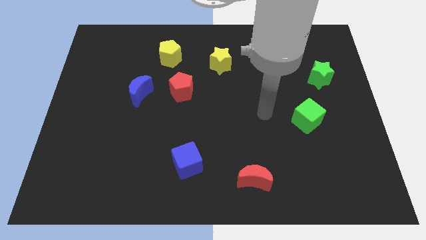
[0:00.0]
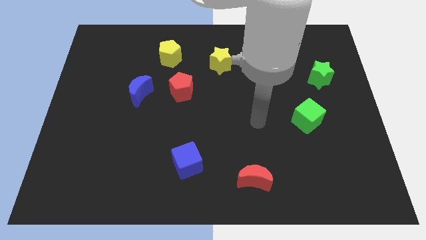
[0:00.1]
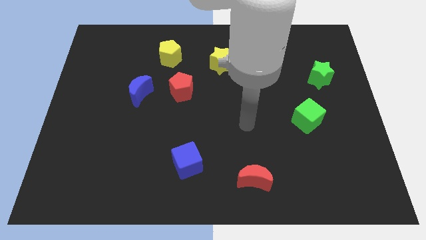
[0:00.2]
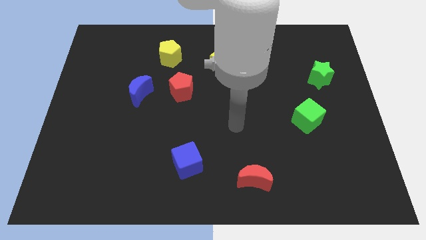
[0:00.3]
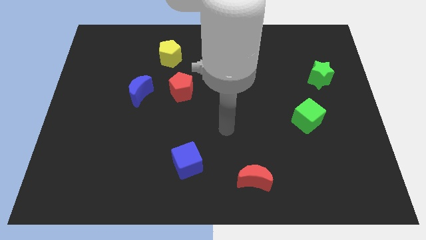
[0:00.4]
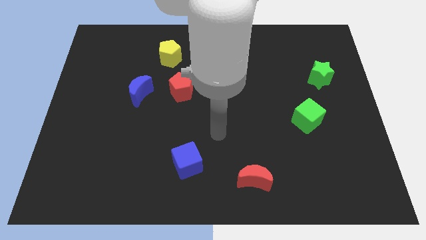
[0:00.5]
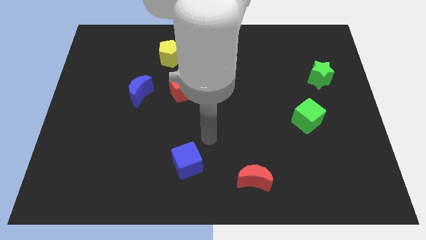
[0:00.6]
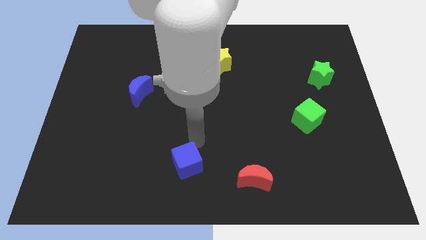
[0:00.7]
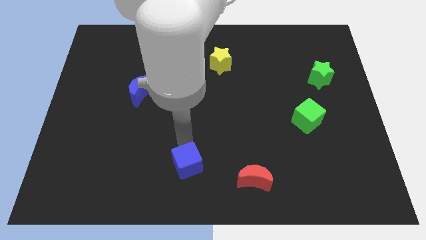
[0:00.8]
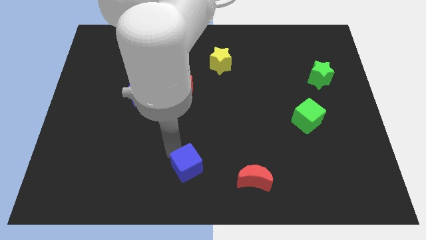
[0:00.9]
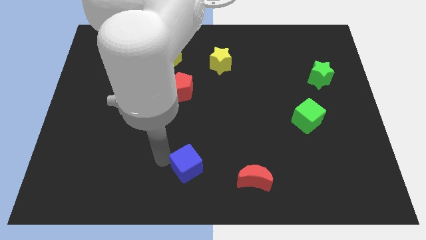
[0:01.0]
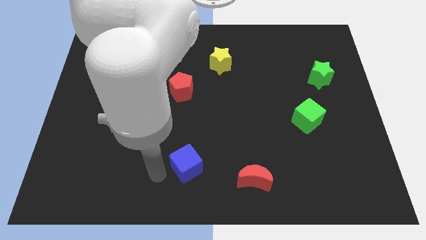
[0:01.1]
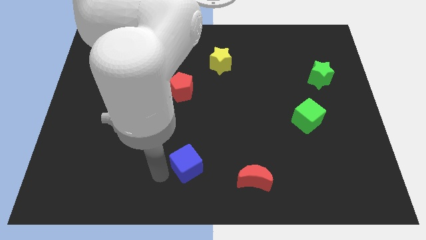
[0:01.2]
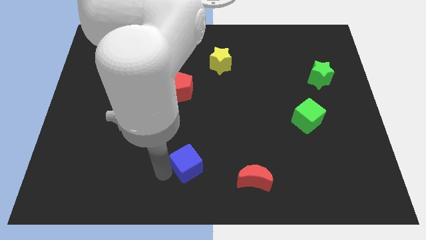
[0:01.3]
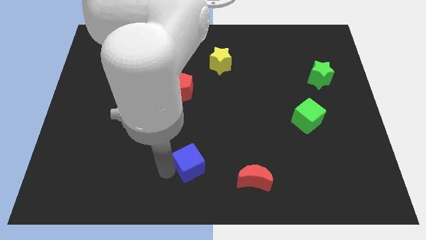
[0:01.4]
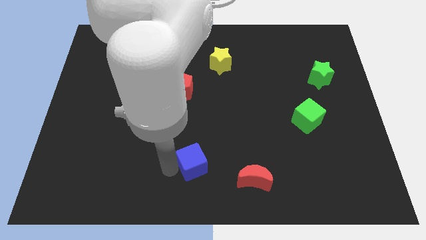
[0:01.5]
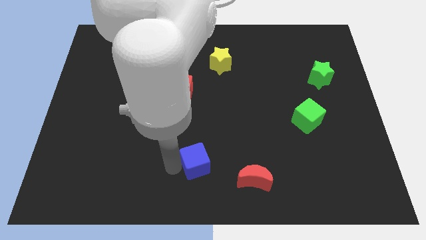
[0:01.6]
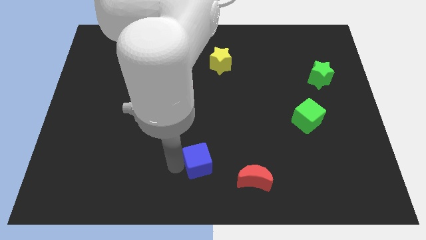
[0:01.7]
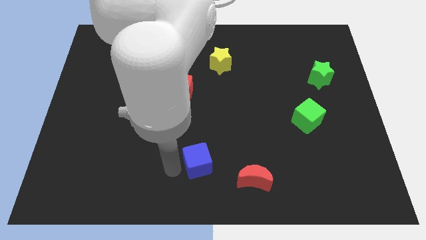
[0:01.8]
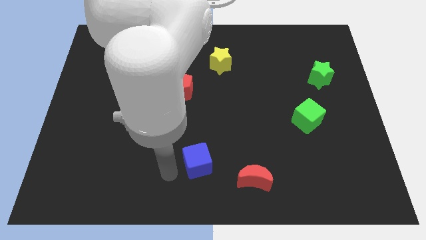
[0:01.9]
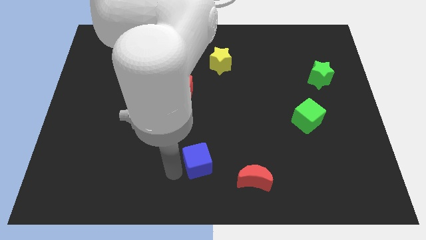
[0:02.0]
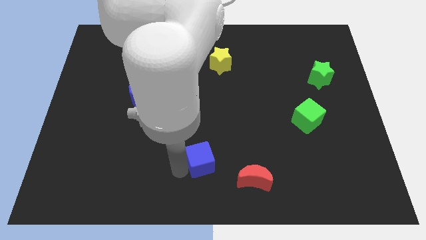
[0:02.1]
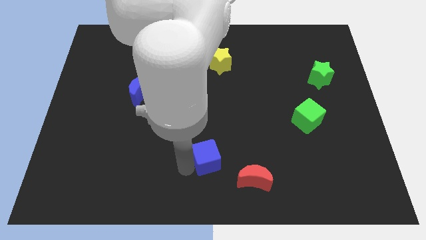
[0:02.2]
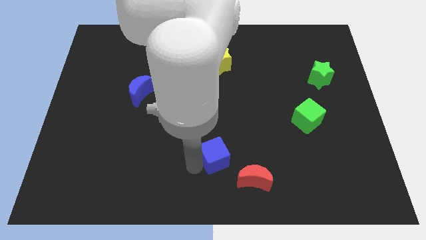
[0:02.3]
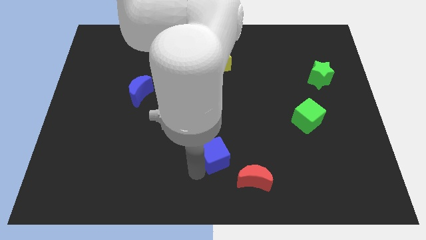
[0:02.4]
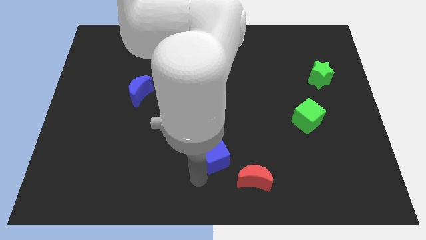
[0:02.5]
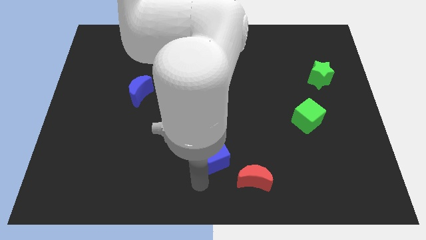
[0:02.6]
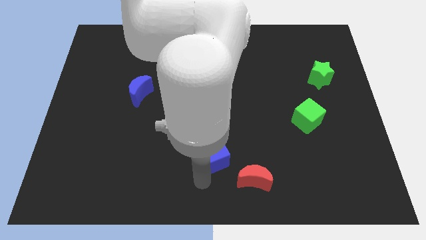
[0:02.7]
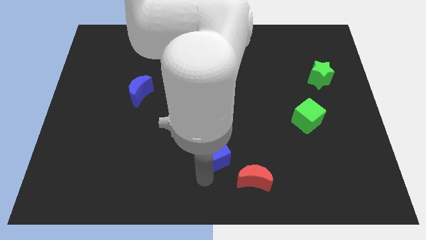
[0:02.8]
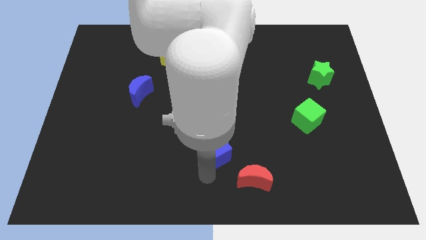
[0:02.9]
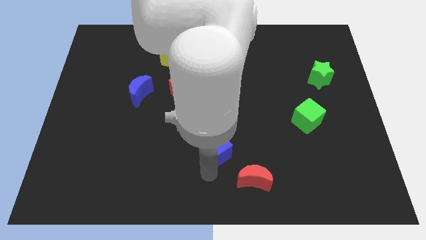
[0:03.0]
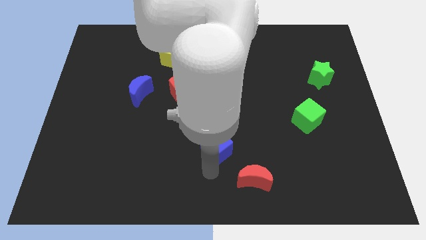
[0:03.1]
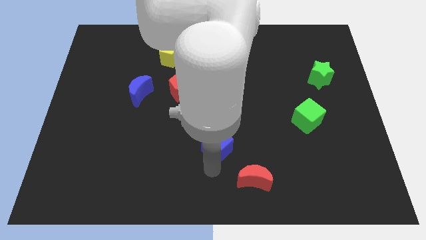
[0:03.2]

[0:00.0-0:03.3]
move the blue cube a little bit upwards and right

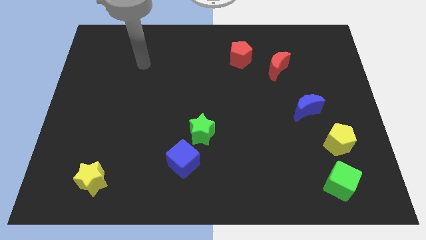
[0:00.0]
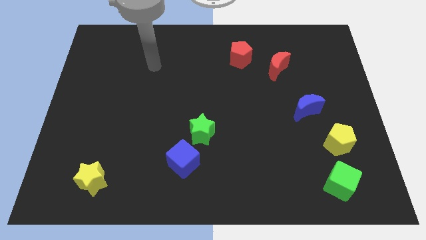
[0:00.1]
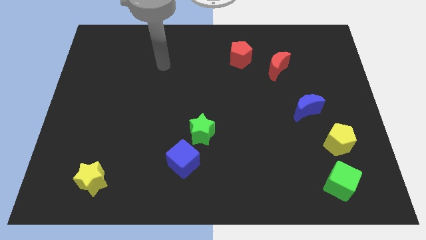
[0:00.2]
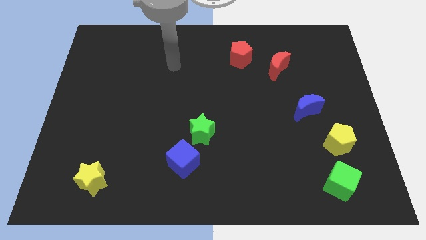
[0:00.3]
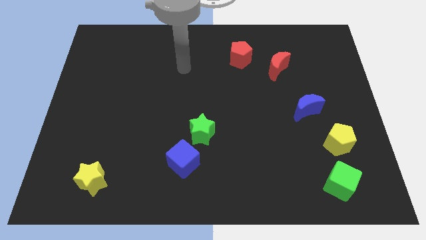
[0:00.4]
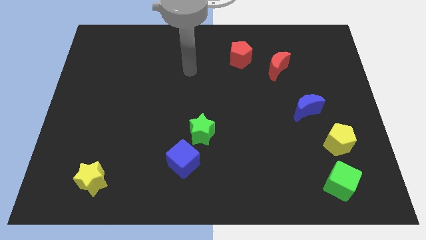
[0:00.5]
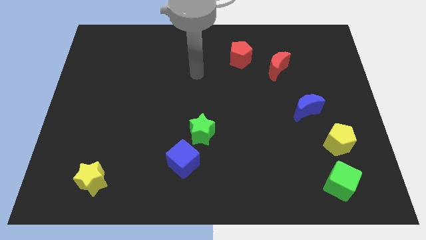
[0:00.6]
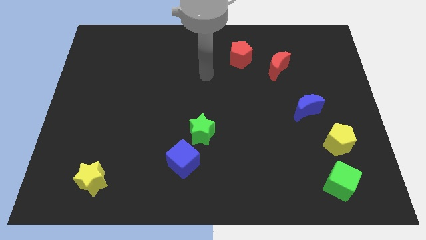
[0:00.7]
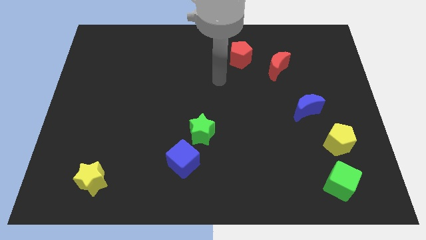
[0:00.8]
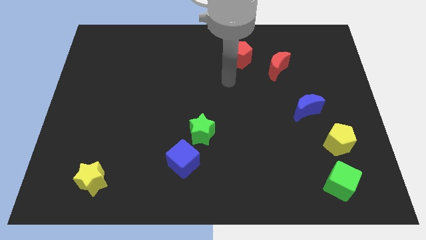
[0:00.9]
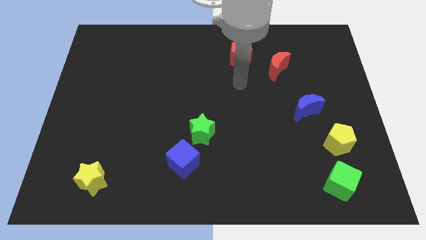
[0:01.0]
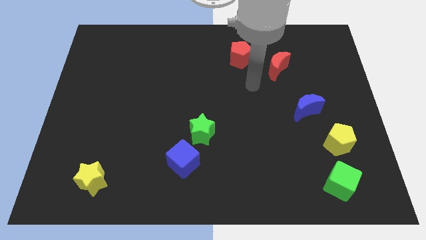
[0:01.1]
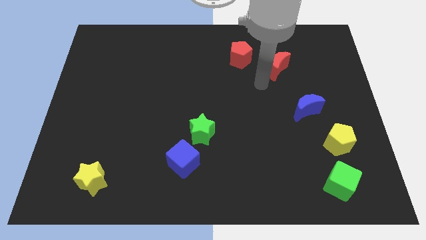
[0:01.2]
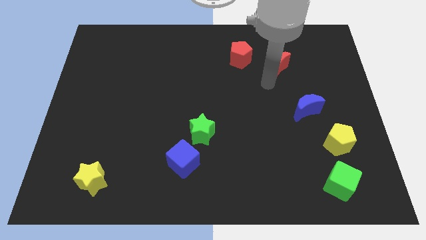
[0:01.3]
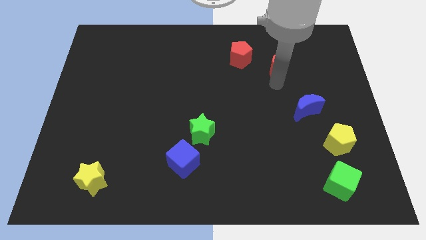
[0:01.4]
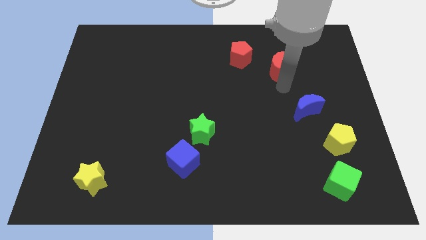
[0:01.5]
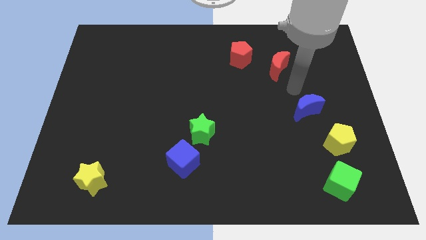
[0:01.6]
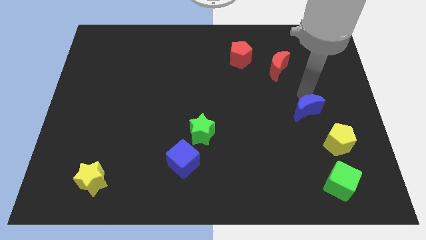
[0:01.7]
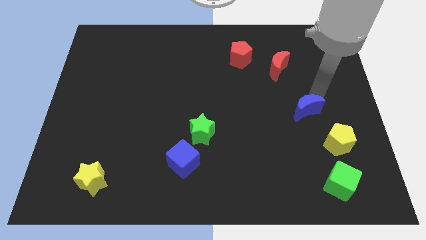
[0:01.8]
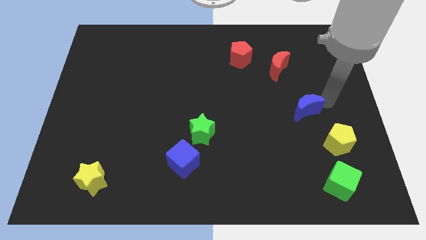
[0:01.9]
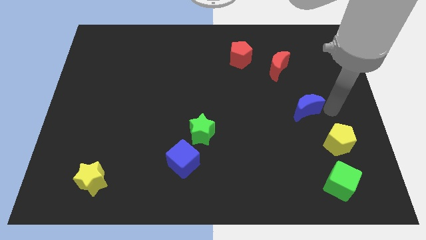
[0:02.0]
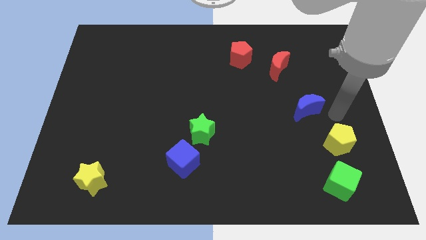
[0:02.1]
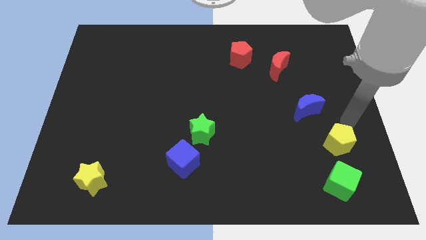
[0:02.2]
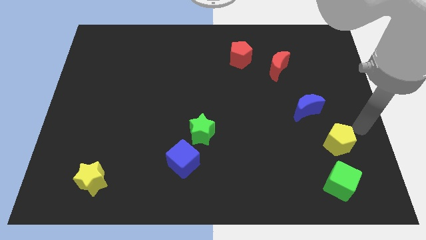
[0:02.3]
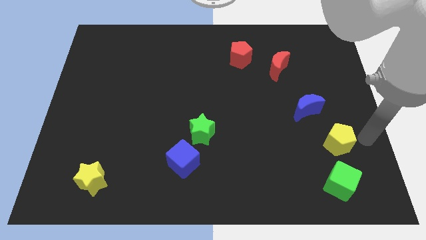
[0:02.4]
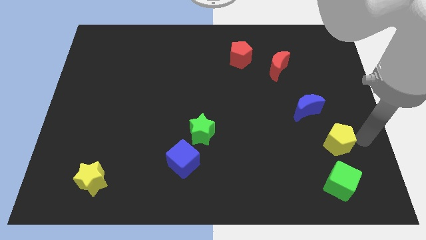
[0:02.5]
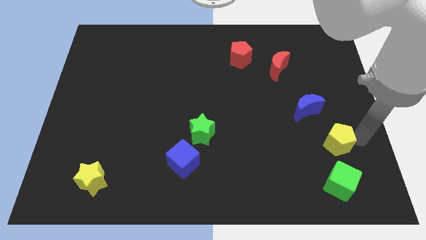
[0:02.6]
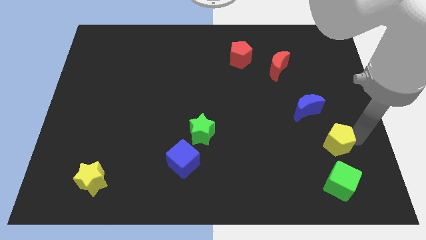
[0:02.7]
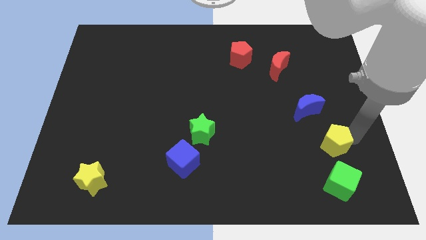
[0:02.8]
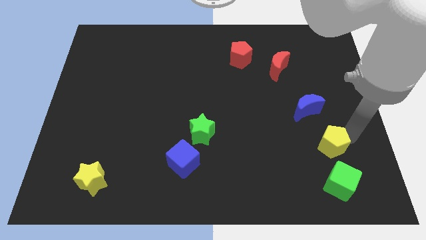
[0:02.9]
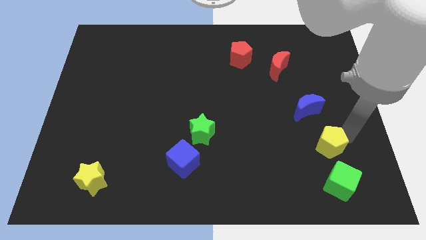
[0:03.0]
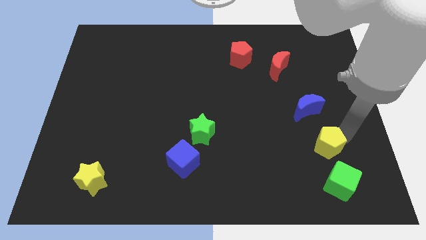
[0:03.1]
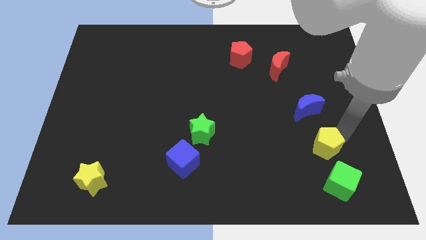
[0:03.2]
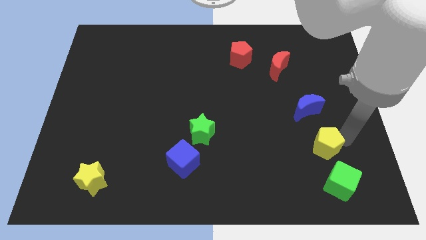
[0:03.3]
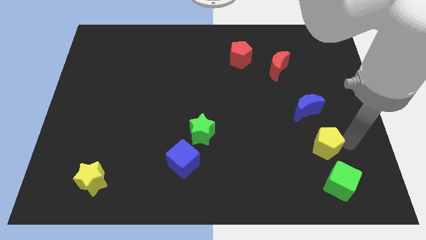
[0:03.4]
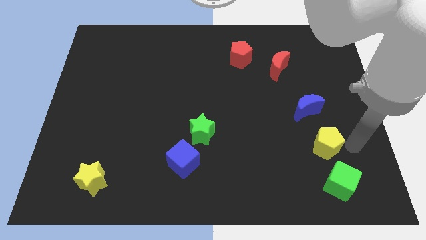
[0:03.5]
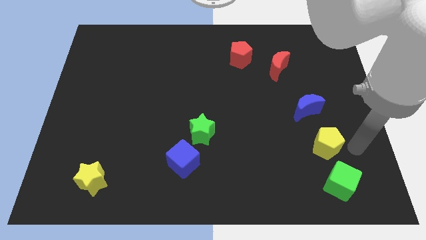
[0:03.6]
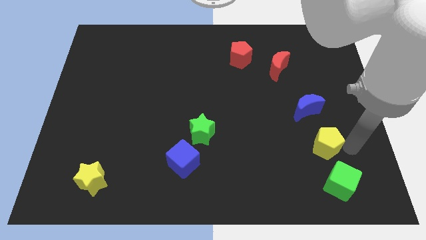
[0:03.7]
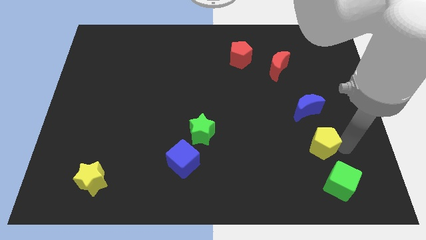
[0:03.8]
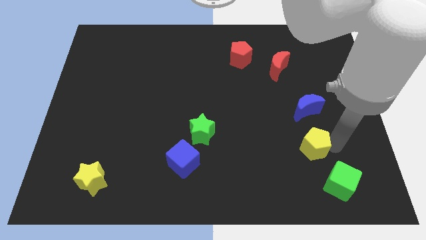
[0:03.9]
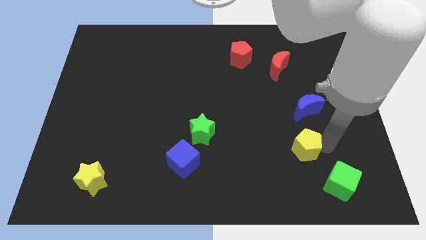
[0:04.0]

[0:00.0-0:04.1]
push the yellow pentagon left a little

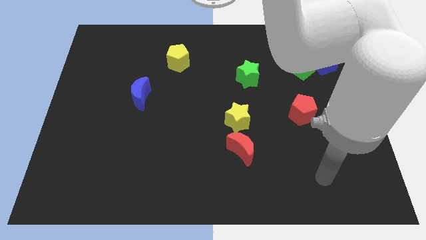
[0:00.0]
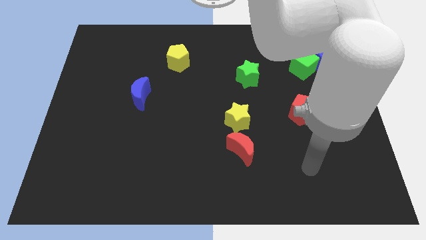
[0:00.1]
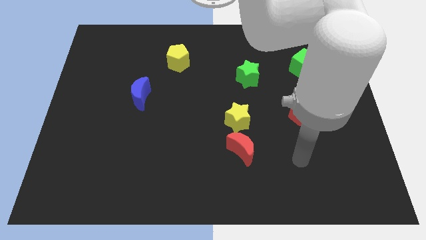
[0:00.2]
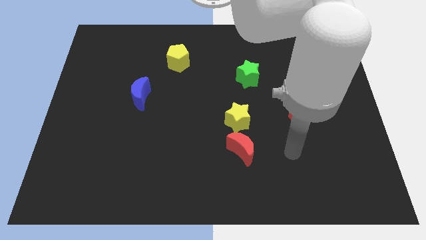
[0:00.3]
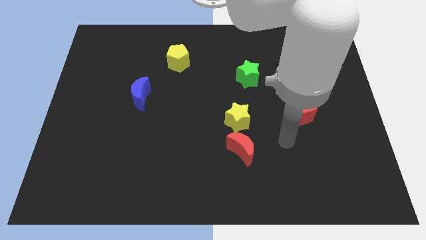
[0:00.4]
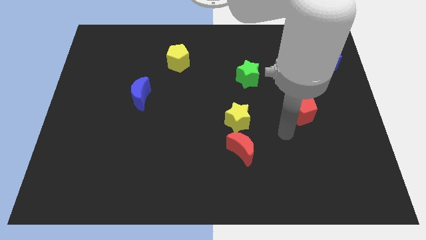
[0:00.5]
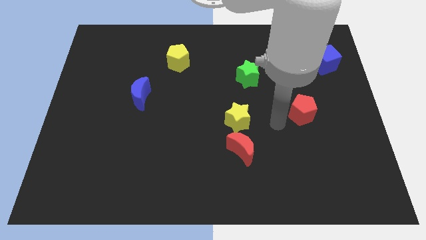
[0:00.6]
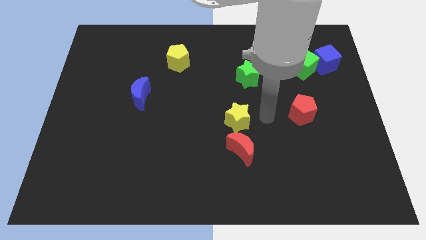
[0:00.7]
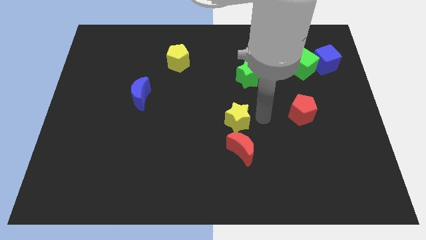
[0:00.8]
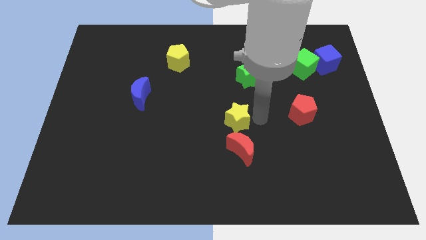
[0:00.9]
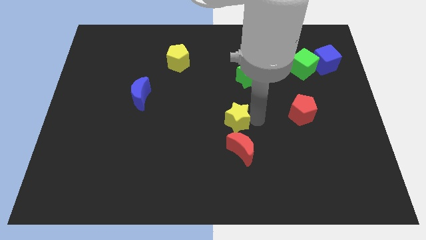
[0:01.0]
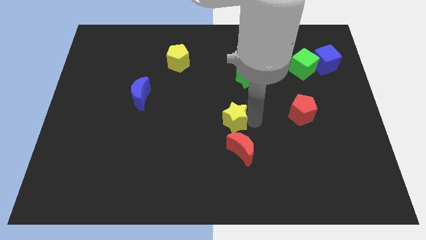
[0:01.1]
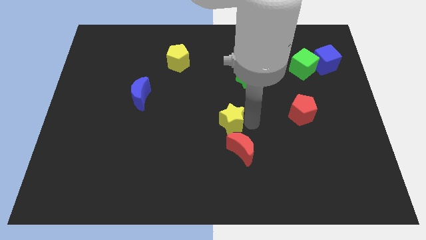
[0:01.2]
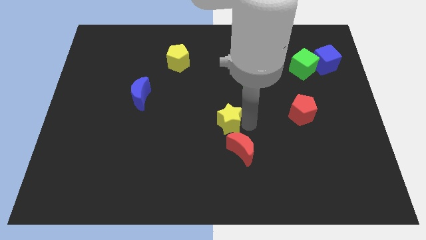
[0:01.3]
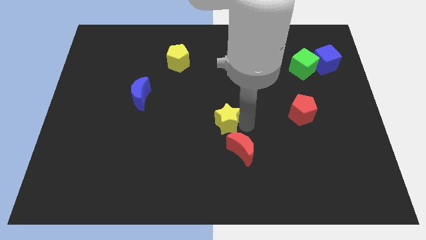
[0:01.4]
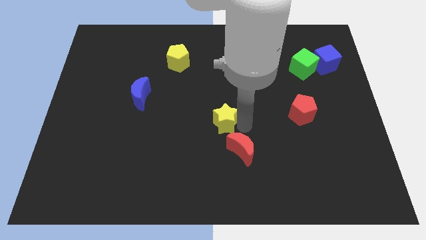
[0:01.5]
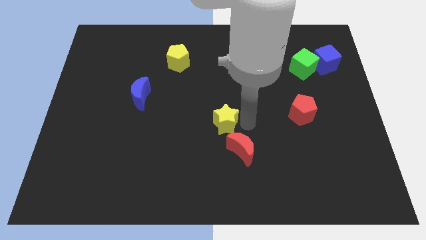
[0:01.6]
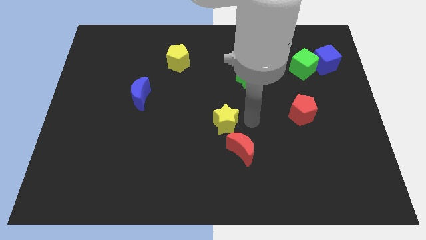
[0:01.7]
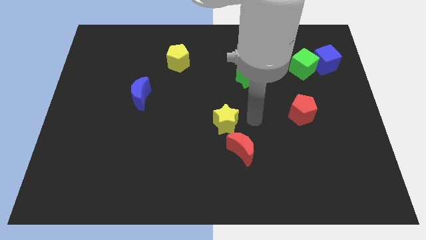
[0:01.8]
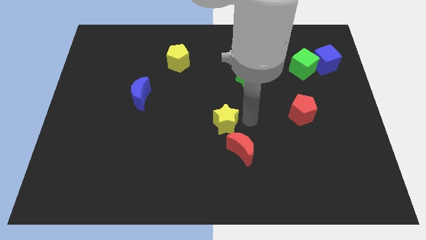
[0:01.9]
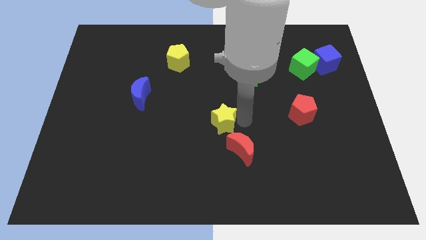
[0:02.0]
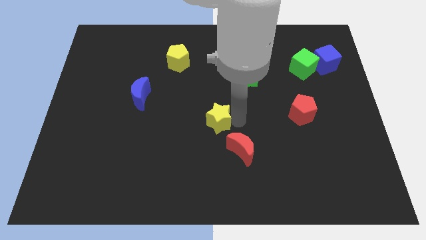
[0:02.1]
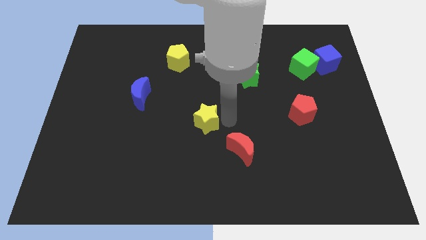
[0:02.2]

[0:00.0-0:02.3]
slide the yellow star a little to the left
